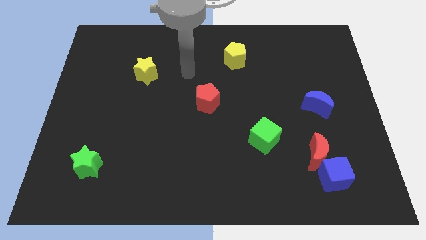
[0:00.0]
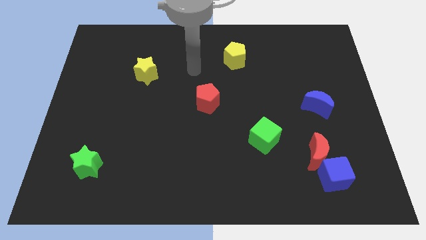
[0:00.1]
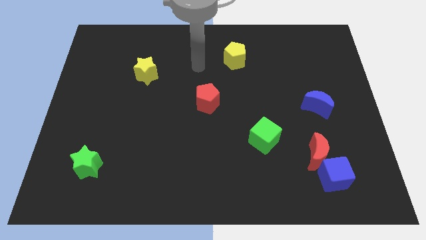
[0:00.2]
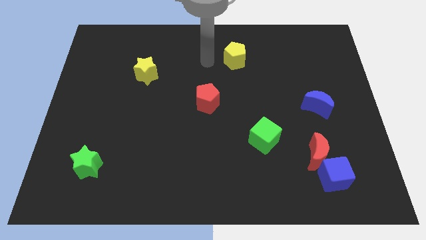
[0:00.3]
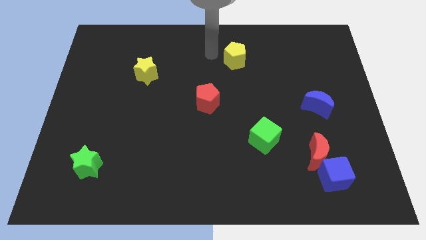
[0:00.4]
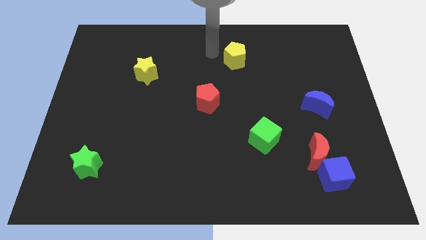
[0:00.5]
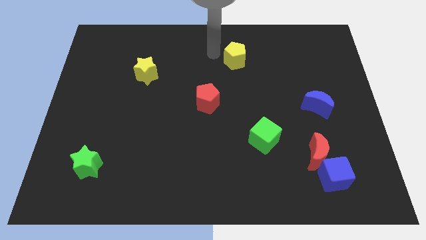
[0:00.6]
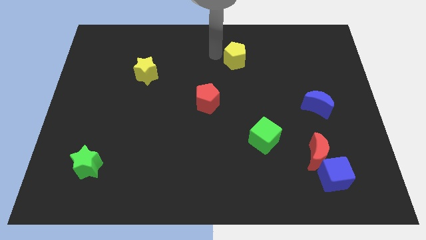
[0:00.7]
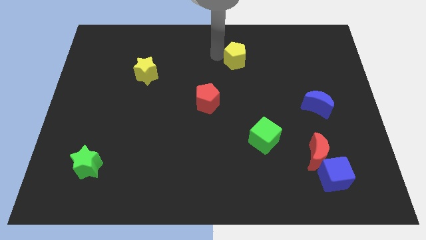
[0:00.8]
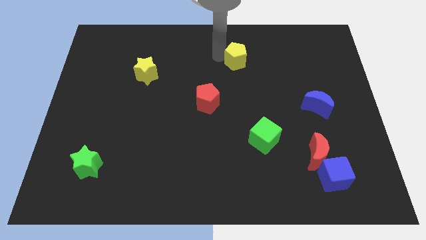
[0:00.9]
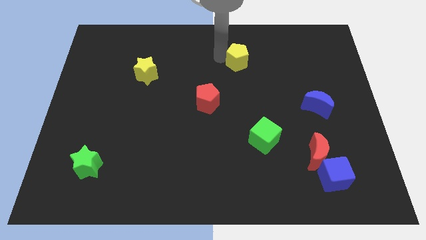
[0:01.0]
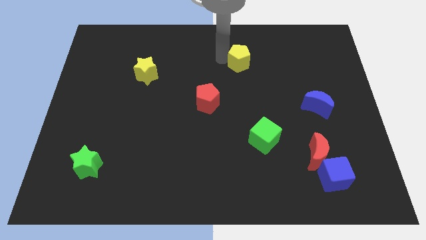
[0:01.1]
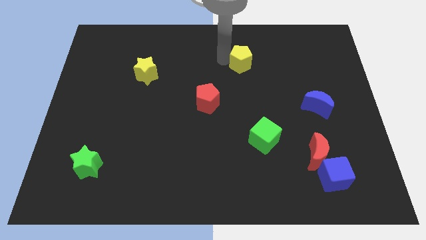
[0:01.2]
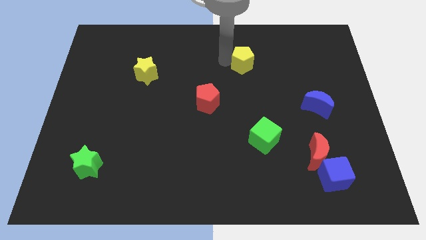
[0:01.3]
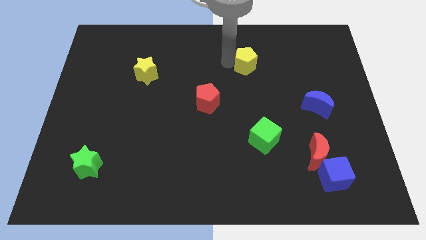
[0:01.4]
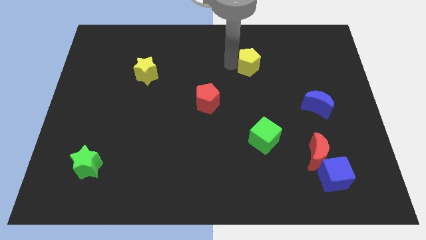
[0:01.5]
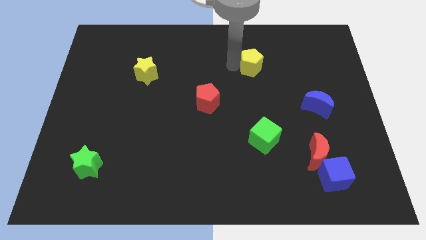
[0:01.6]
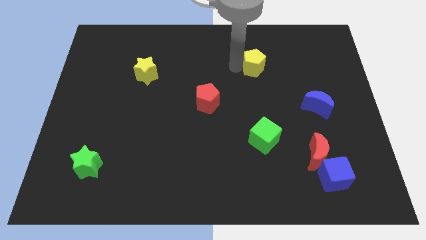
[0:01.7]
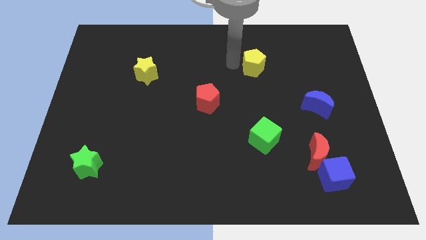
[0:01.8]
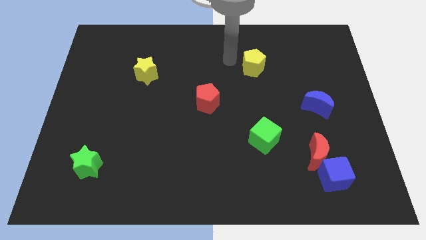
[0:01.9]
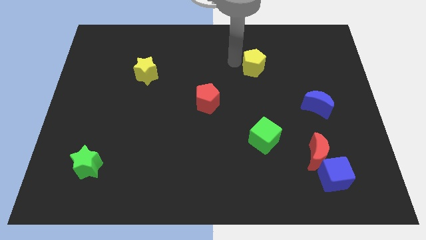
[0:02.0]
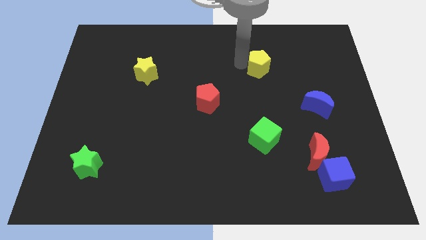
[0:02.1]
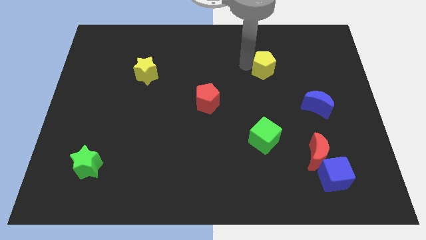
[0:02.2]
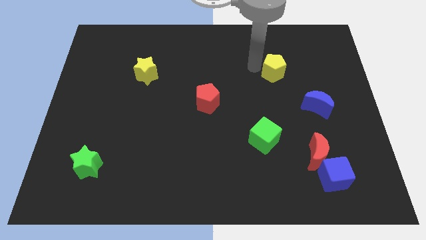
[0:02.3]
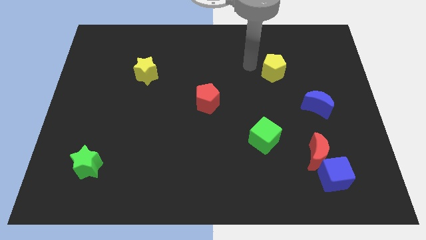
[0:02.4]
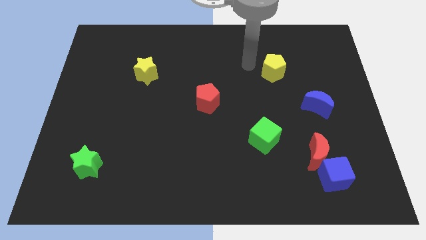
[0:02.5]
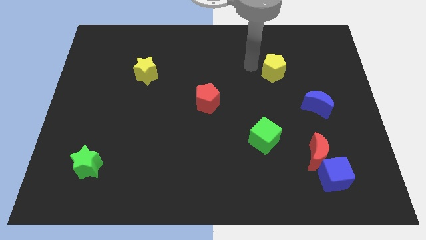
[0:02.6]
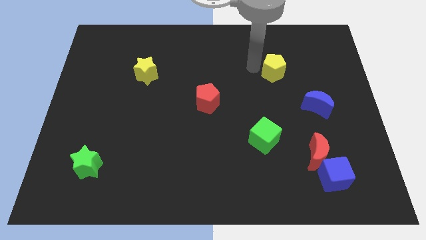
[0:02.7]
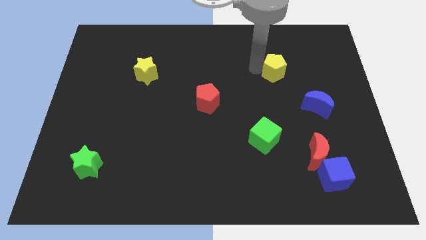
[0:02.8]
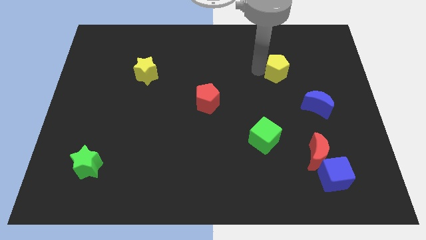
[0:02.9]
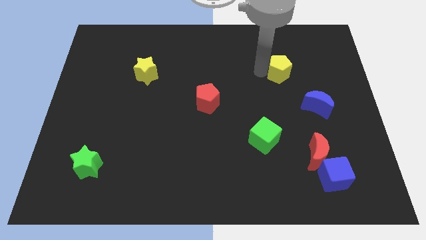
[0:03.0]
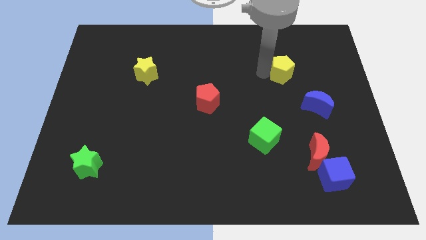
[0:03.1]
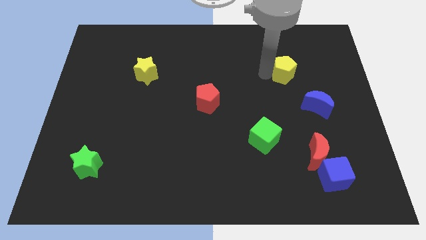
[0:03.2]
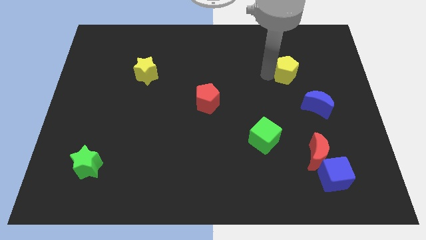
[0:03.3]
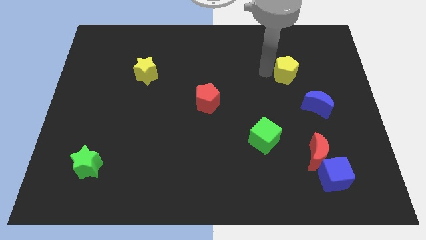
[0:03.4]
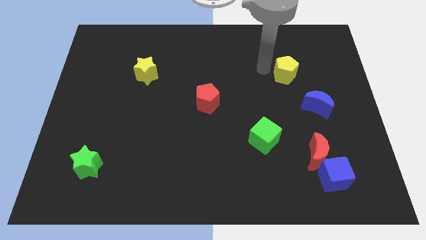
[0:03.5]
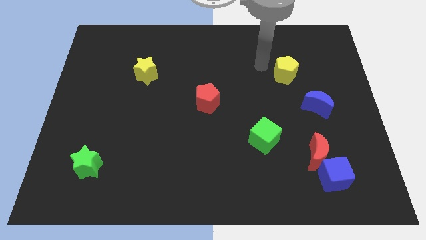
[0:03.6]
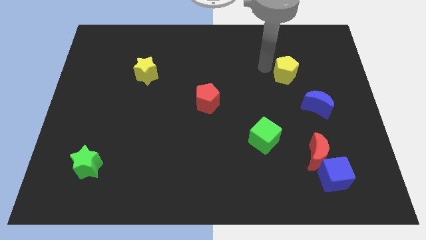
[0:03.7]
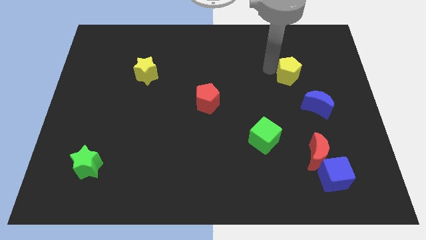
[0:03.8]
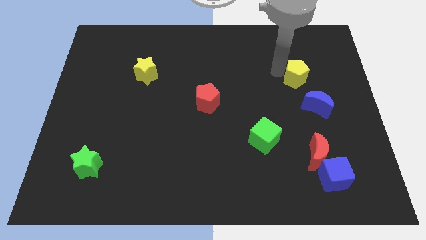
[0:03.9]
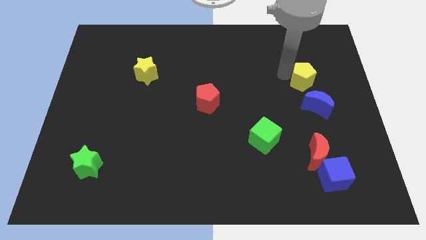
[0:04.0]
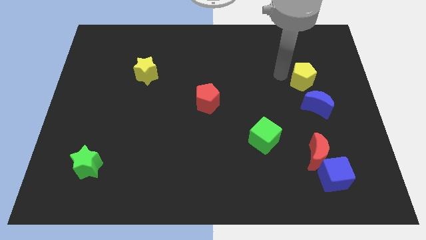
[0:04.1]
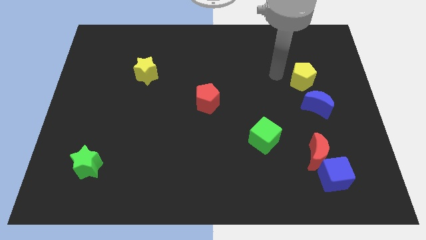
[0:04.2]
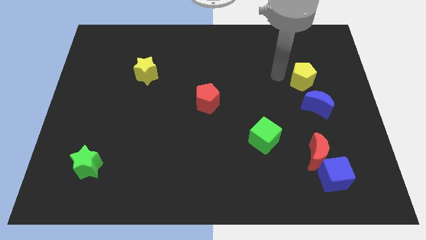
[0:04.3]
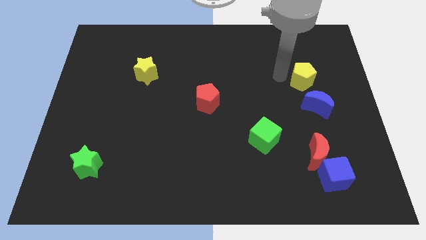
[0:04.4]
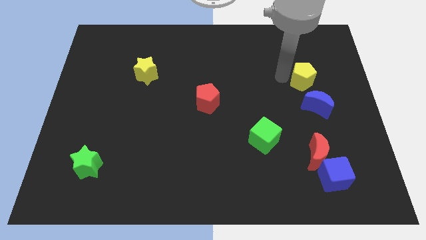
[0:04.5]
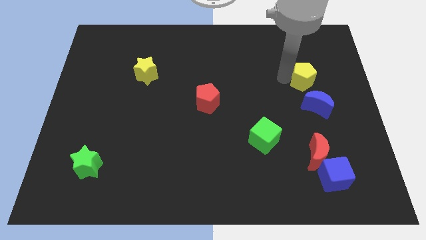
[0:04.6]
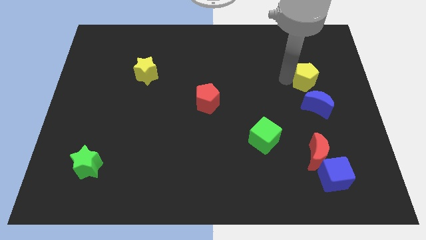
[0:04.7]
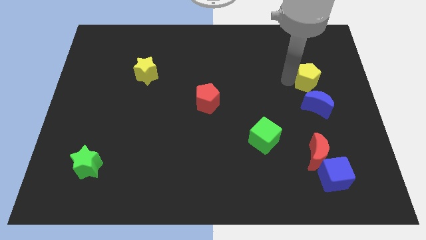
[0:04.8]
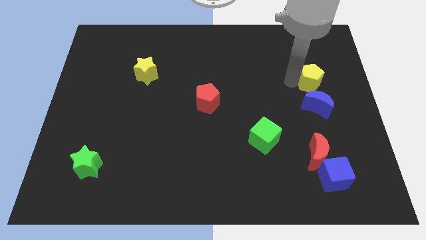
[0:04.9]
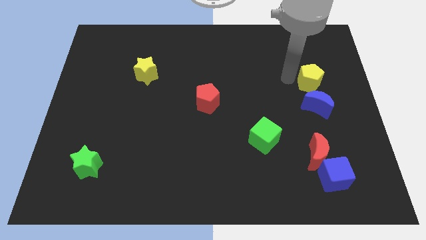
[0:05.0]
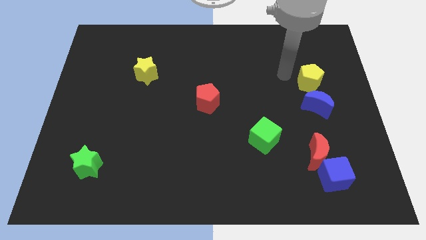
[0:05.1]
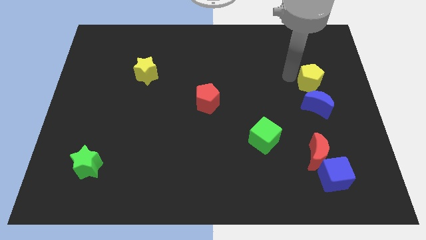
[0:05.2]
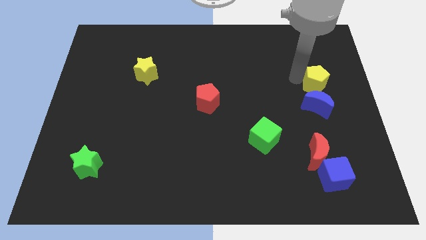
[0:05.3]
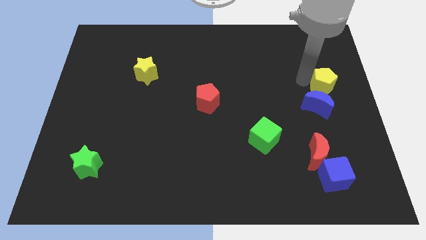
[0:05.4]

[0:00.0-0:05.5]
push the yellow pentagon to the right side of the board

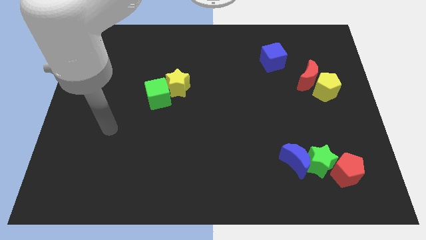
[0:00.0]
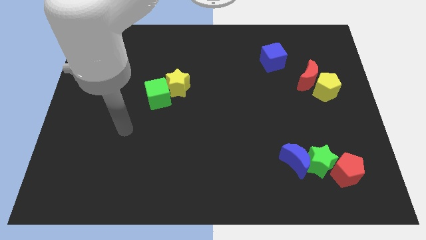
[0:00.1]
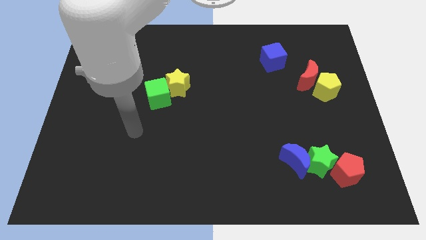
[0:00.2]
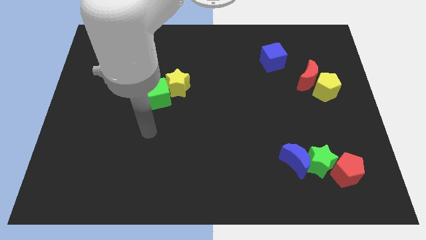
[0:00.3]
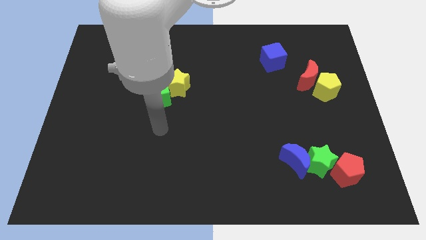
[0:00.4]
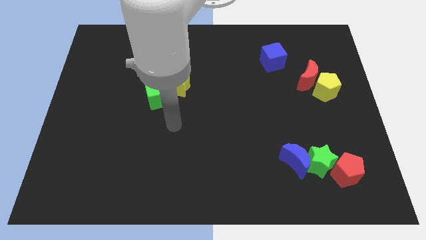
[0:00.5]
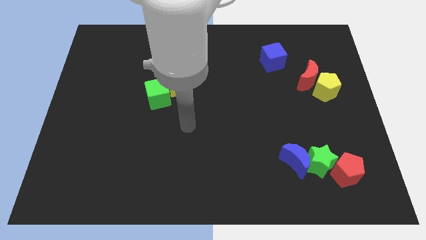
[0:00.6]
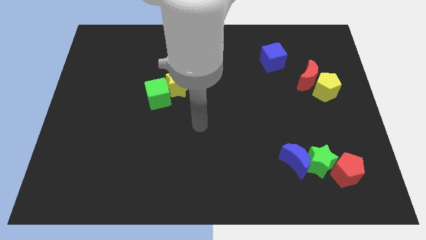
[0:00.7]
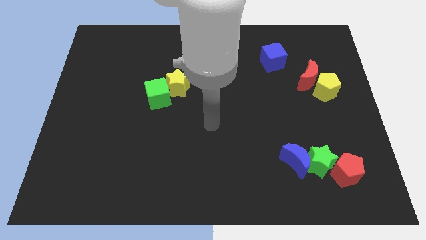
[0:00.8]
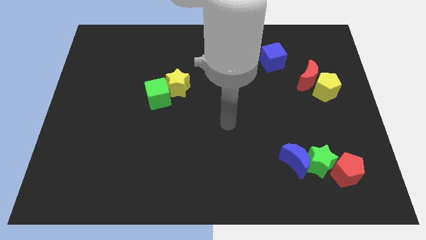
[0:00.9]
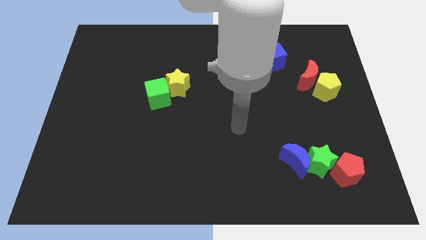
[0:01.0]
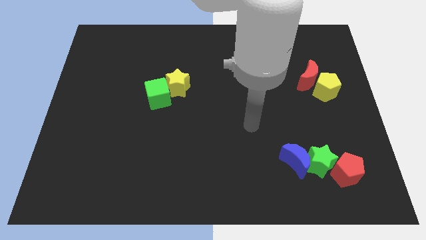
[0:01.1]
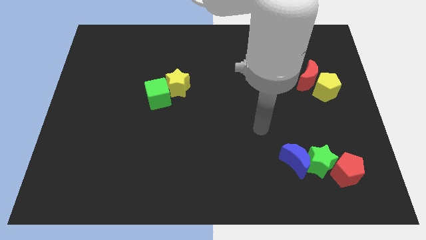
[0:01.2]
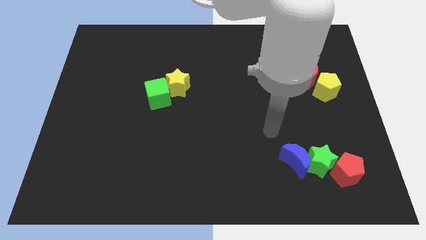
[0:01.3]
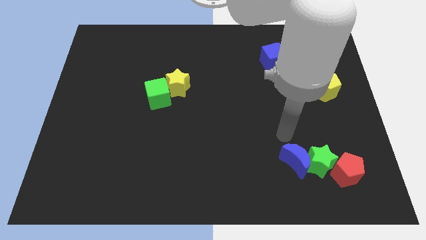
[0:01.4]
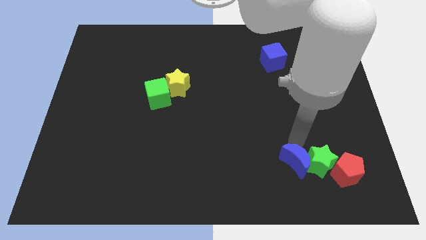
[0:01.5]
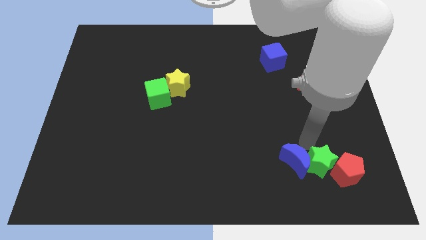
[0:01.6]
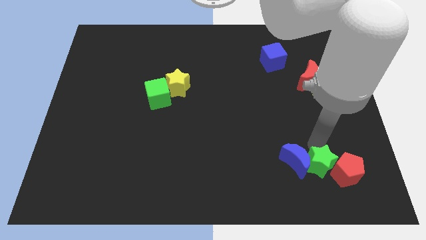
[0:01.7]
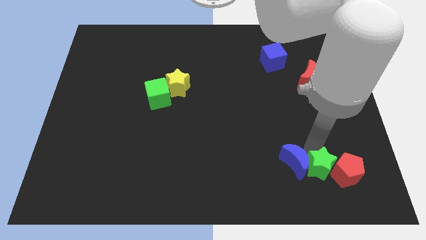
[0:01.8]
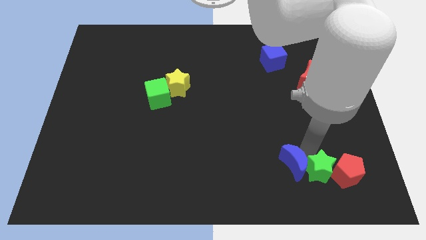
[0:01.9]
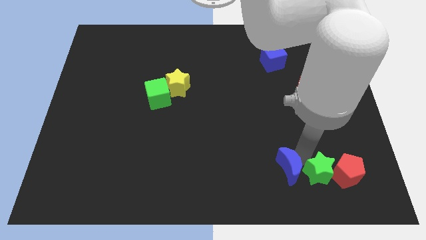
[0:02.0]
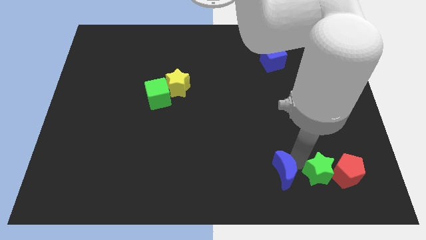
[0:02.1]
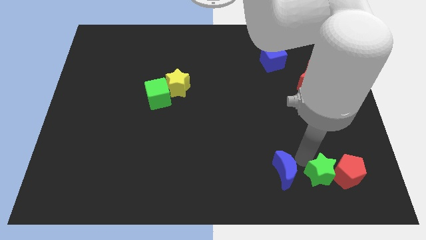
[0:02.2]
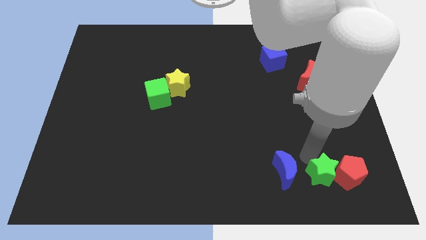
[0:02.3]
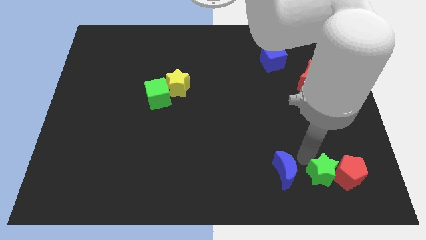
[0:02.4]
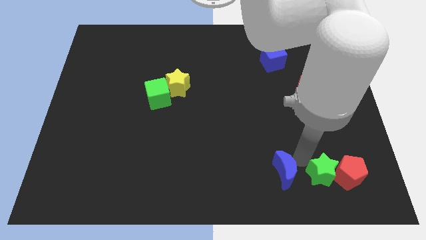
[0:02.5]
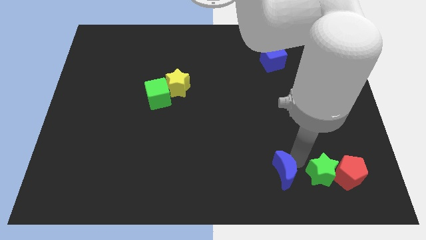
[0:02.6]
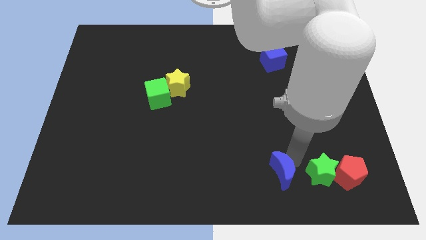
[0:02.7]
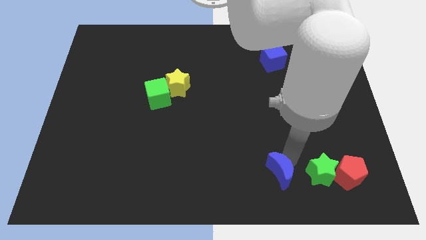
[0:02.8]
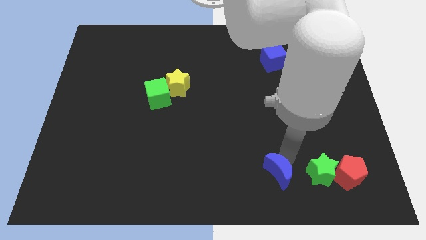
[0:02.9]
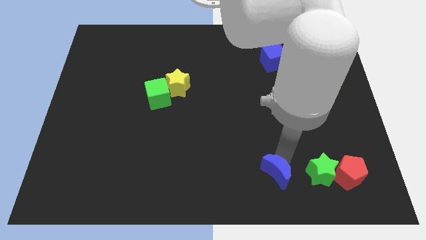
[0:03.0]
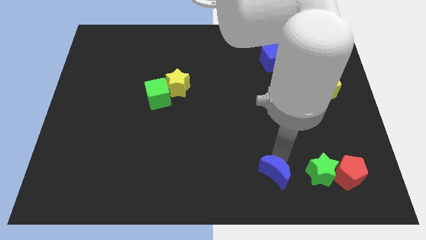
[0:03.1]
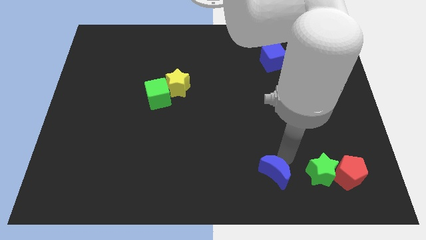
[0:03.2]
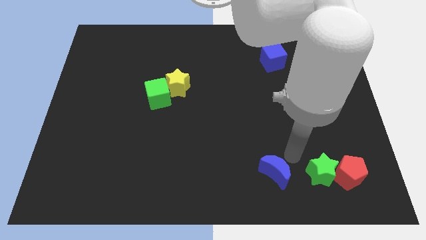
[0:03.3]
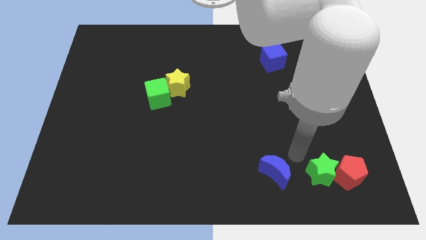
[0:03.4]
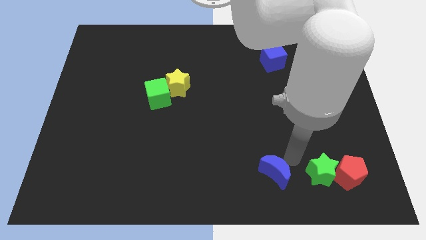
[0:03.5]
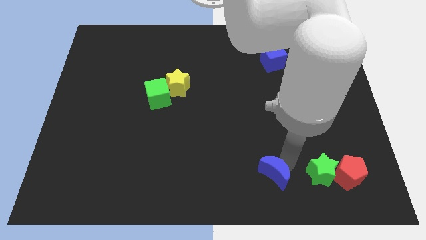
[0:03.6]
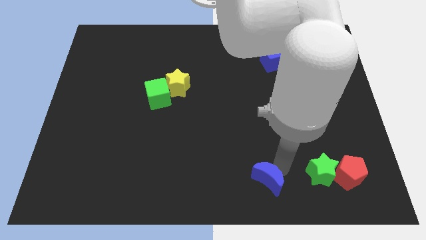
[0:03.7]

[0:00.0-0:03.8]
slide the blue moon to the bottom
